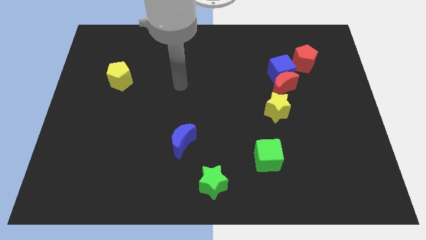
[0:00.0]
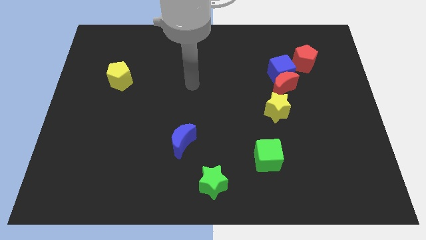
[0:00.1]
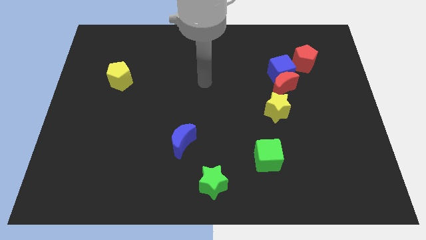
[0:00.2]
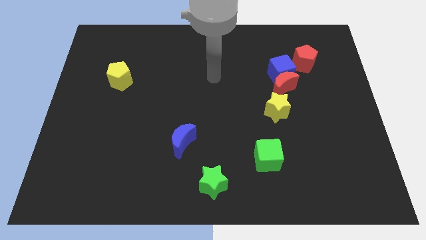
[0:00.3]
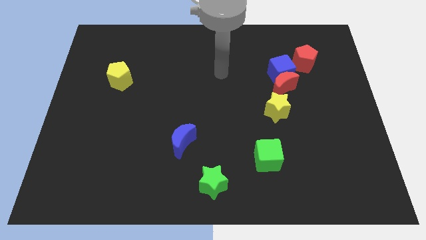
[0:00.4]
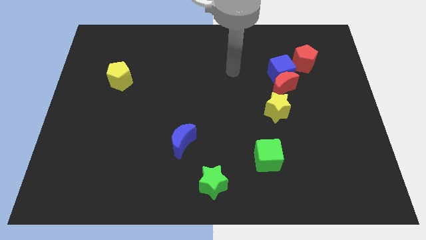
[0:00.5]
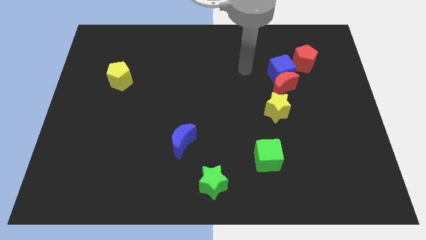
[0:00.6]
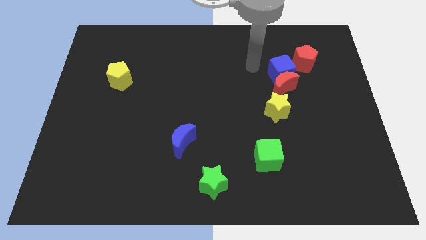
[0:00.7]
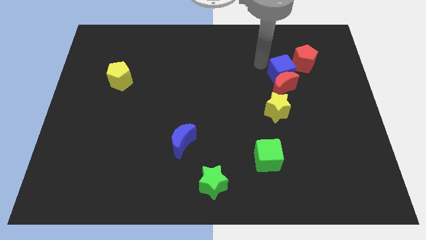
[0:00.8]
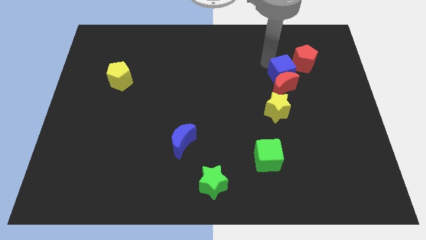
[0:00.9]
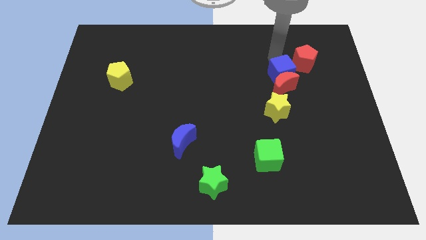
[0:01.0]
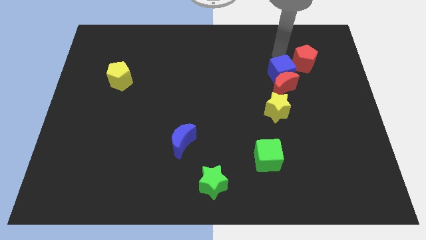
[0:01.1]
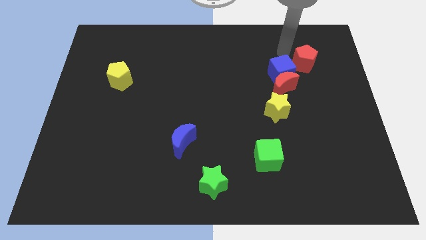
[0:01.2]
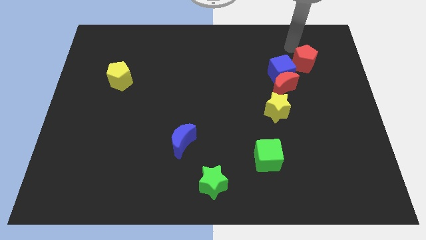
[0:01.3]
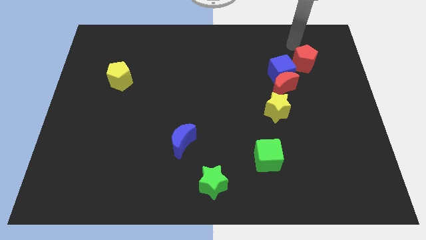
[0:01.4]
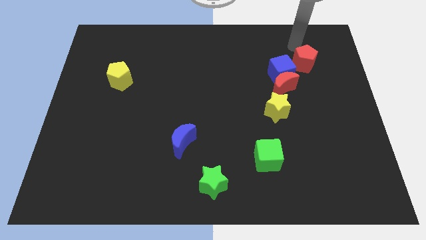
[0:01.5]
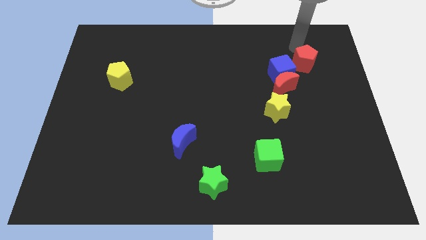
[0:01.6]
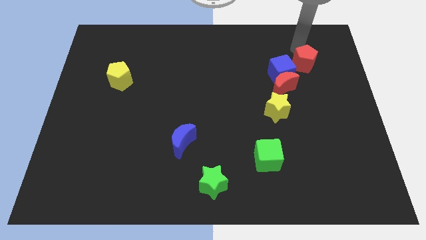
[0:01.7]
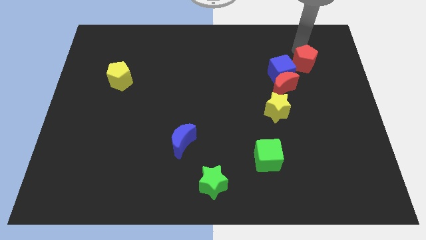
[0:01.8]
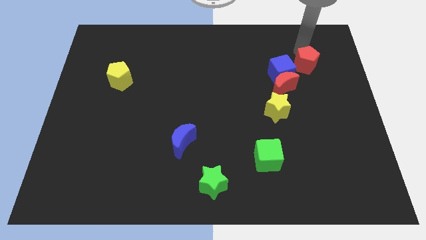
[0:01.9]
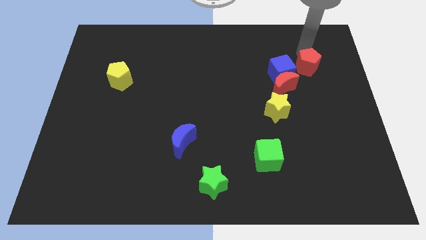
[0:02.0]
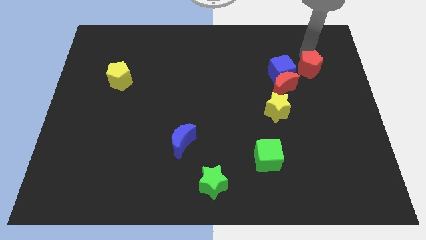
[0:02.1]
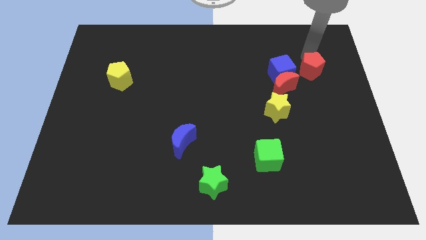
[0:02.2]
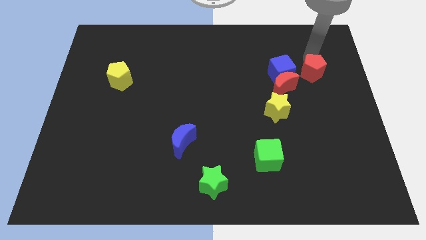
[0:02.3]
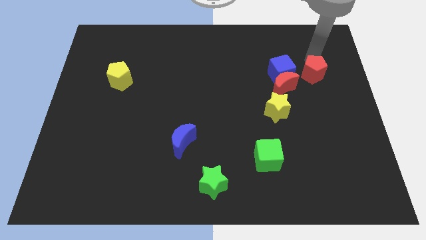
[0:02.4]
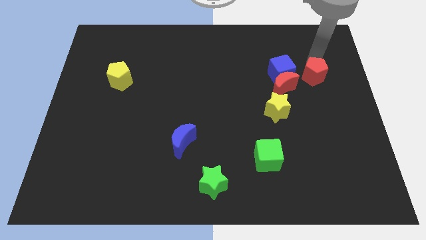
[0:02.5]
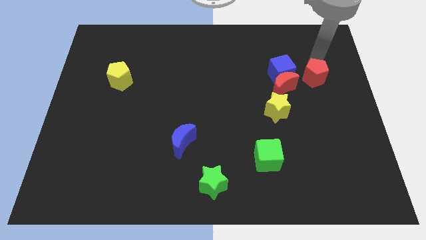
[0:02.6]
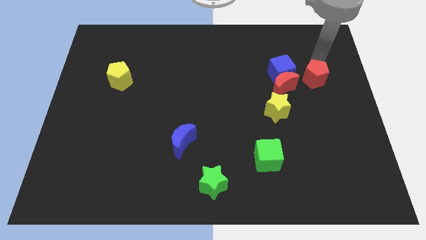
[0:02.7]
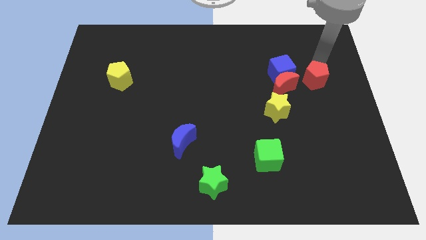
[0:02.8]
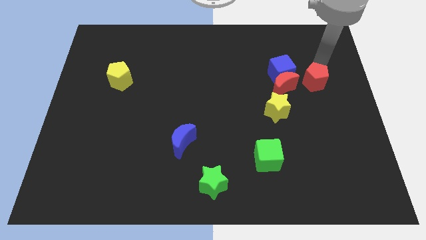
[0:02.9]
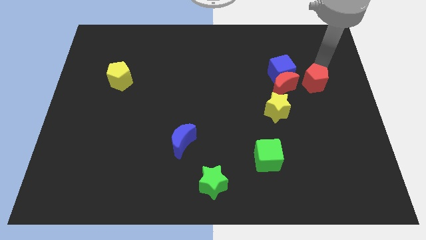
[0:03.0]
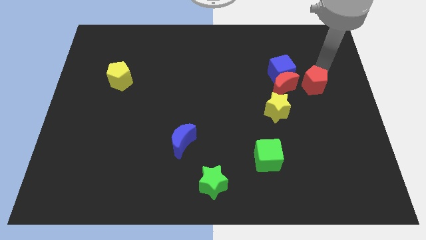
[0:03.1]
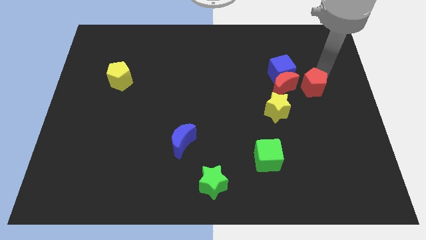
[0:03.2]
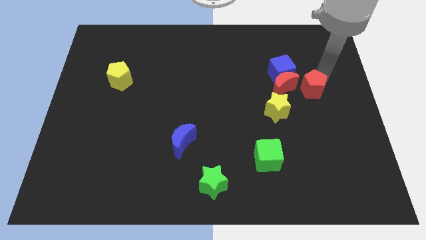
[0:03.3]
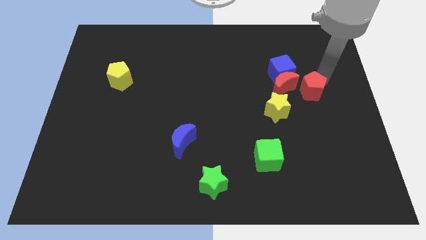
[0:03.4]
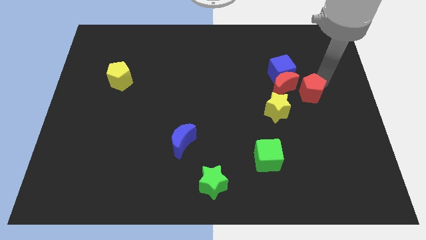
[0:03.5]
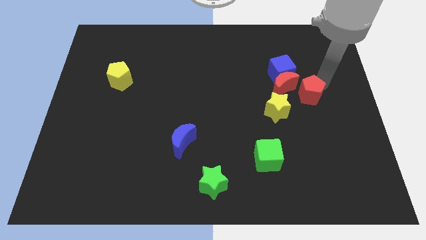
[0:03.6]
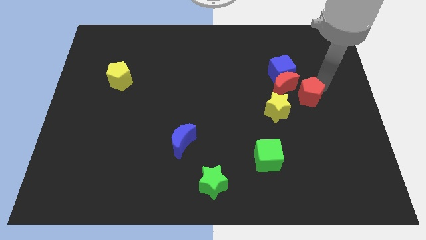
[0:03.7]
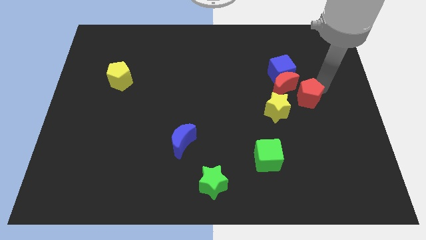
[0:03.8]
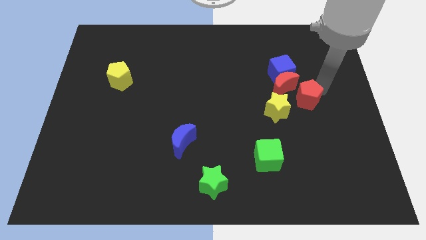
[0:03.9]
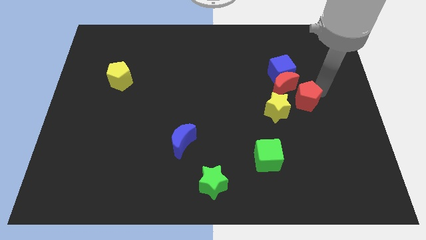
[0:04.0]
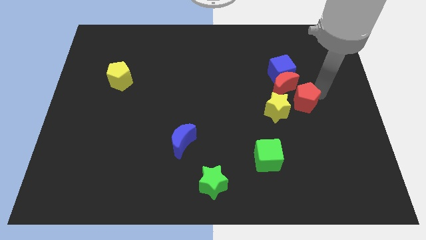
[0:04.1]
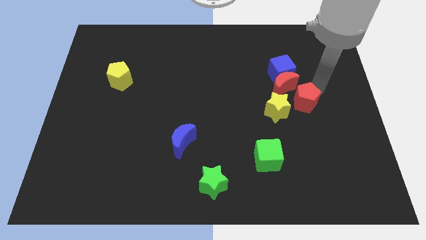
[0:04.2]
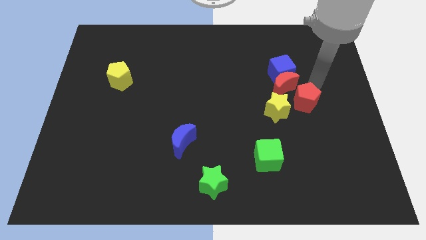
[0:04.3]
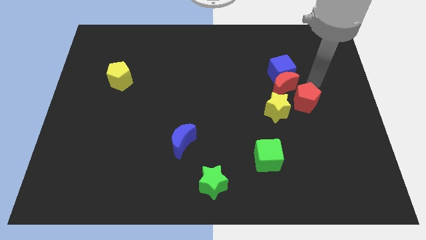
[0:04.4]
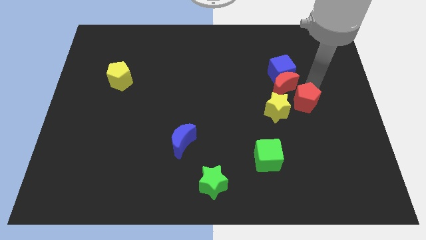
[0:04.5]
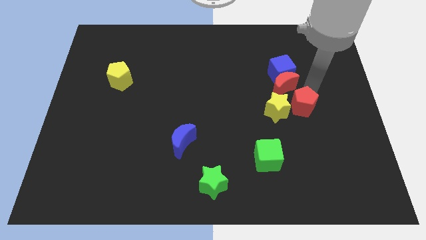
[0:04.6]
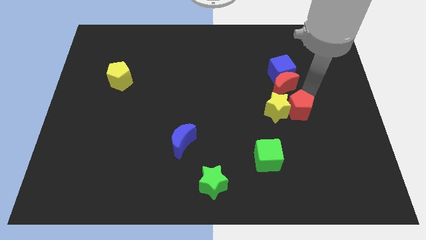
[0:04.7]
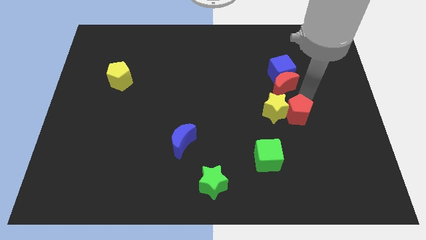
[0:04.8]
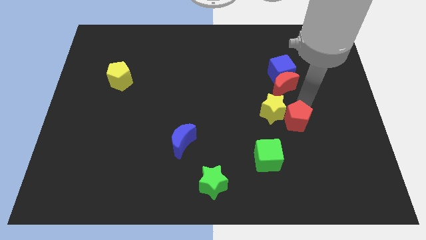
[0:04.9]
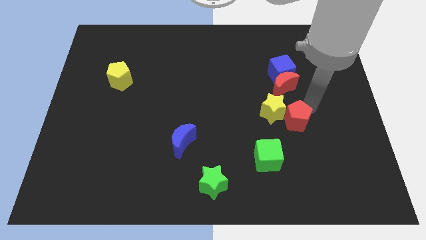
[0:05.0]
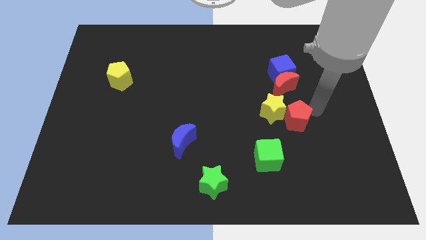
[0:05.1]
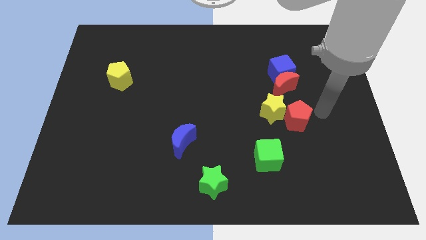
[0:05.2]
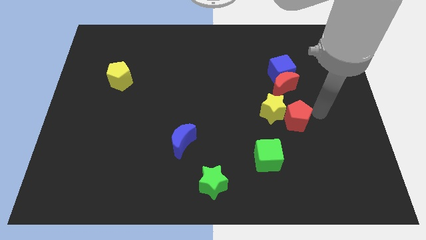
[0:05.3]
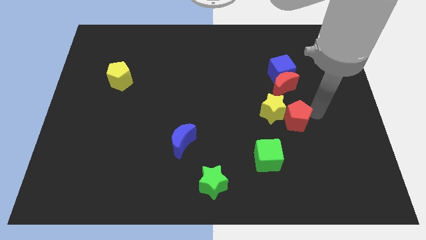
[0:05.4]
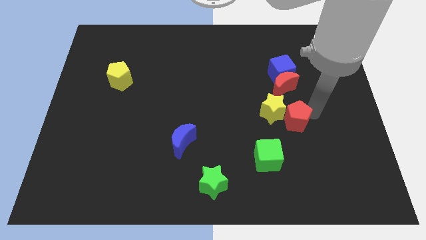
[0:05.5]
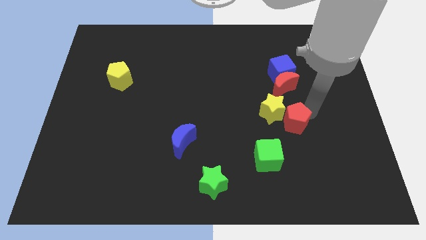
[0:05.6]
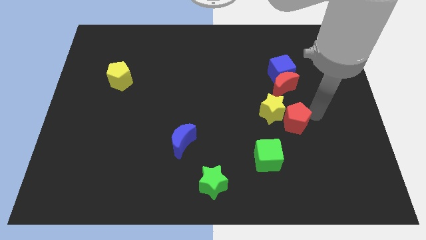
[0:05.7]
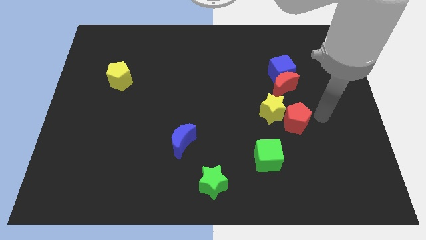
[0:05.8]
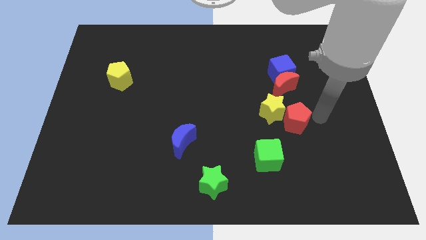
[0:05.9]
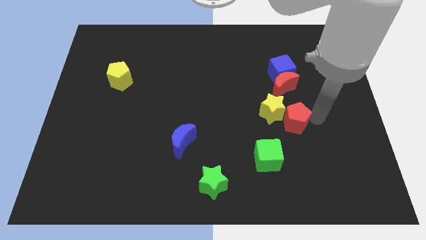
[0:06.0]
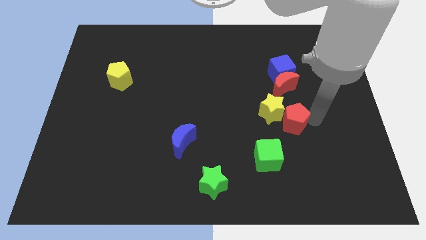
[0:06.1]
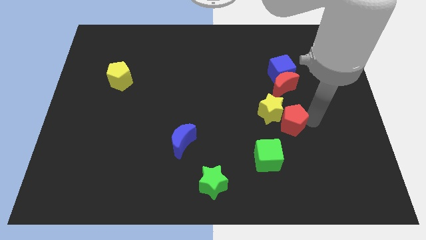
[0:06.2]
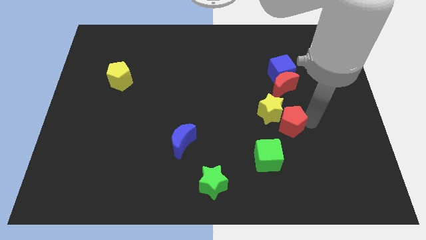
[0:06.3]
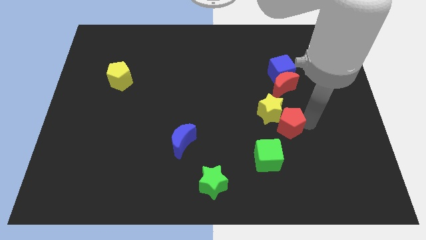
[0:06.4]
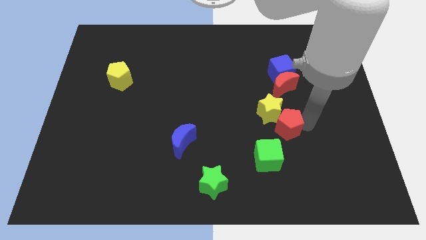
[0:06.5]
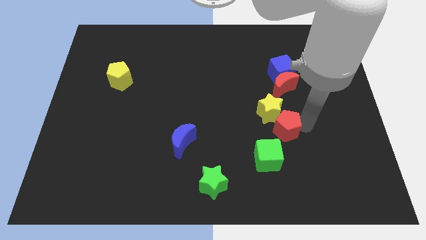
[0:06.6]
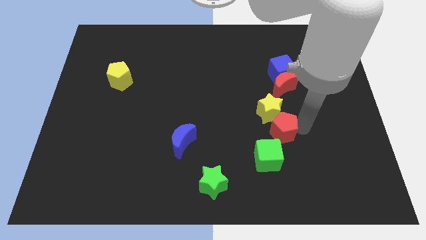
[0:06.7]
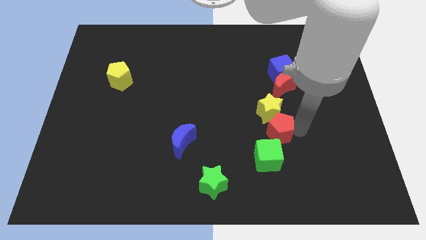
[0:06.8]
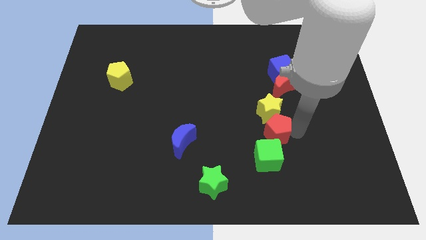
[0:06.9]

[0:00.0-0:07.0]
put the red pentagon to the bottom left of the yellow star

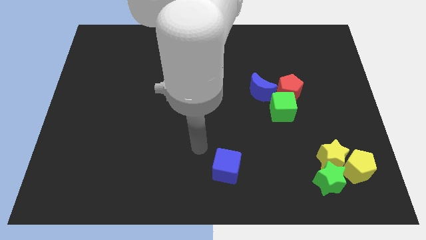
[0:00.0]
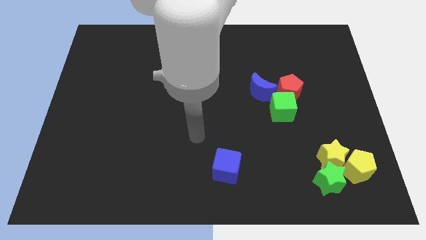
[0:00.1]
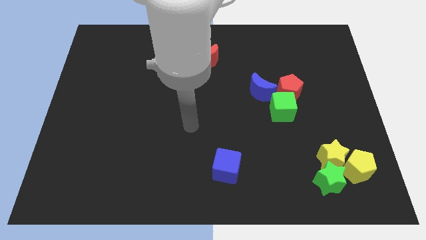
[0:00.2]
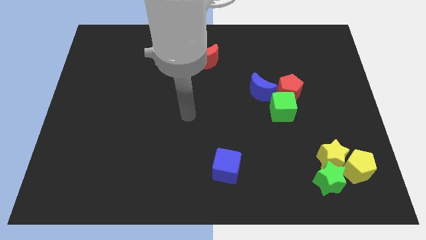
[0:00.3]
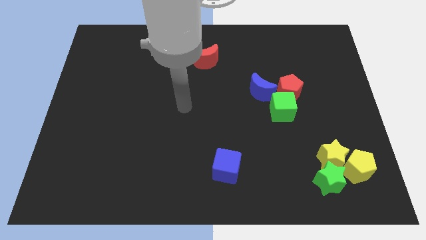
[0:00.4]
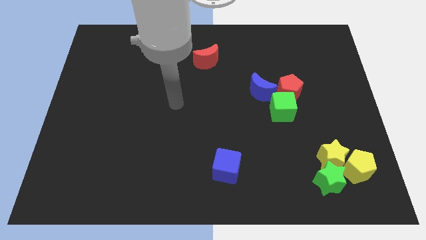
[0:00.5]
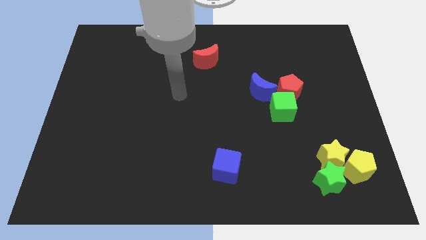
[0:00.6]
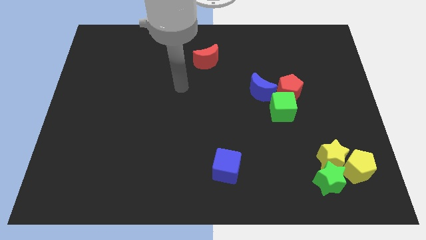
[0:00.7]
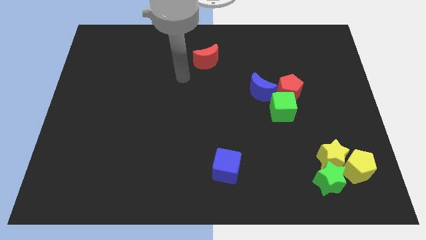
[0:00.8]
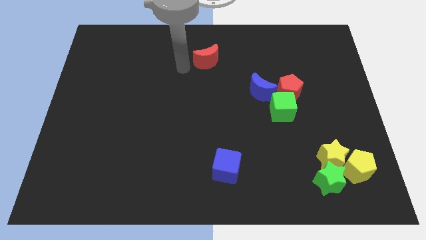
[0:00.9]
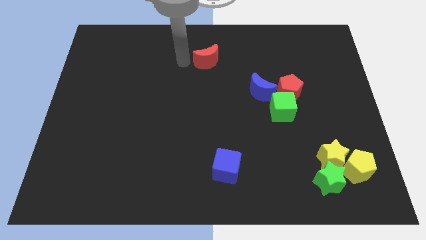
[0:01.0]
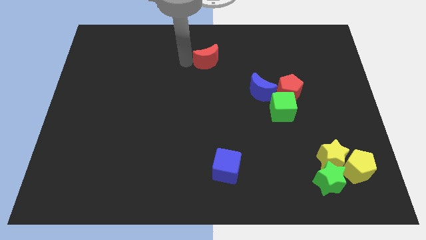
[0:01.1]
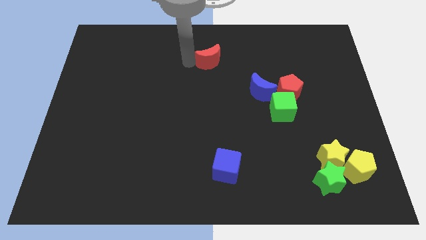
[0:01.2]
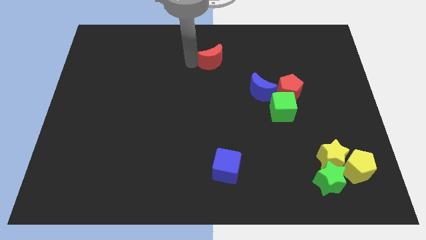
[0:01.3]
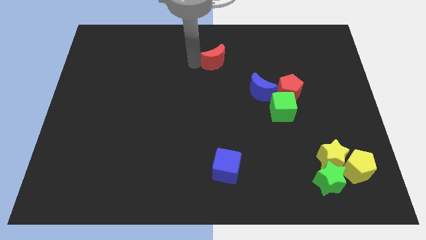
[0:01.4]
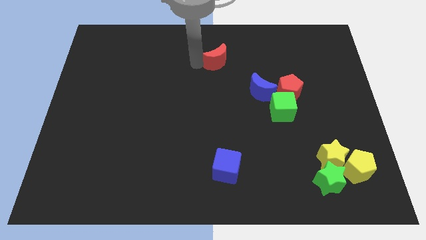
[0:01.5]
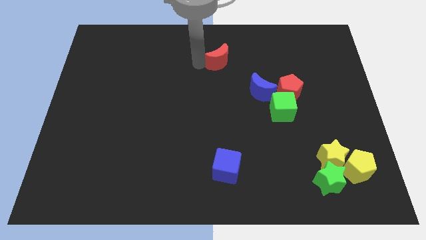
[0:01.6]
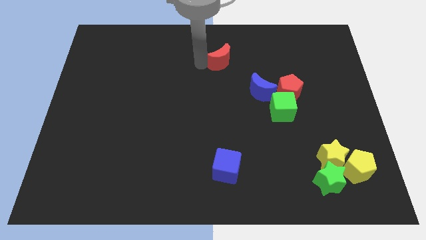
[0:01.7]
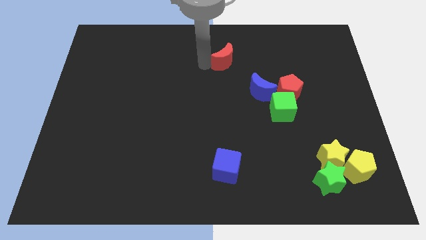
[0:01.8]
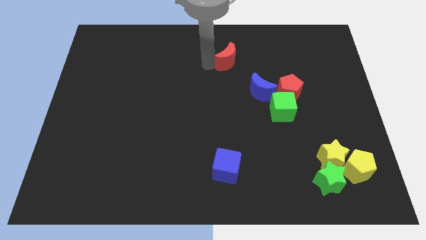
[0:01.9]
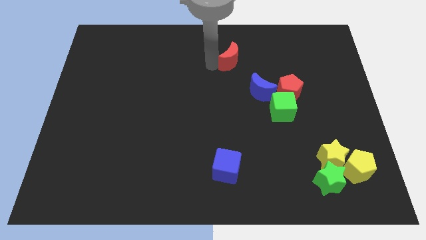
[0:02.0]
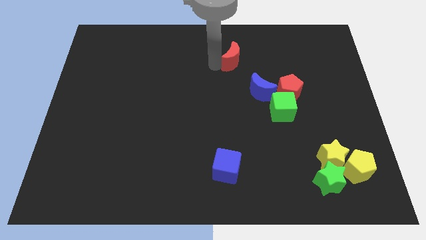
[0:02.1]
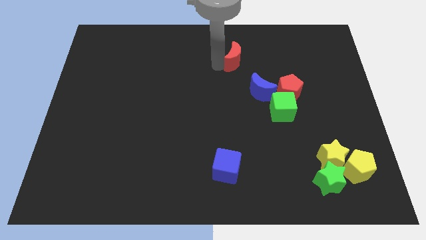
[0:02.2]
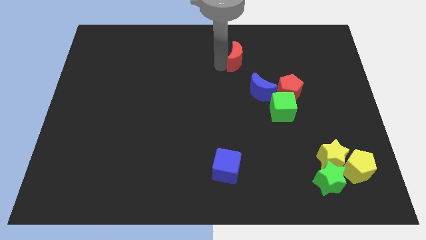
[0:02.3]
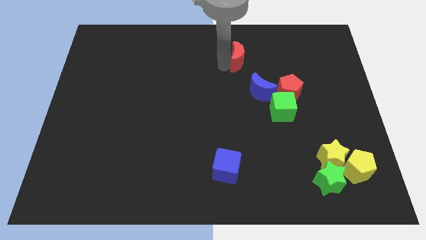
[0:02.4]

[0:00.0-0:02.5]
put the red moon to the top side of the blue moon
